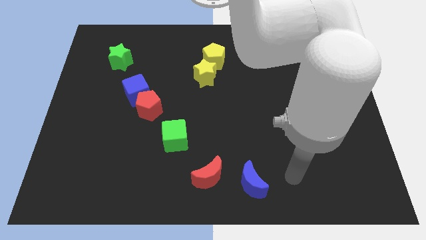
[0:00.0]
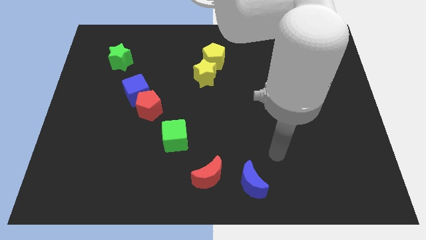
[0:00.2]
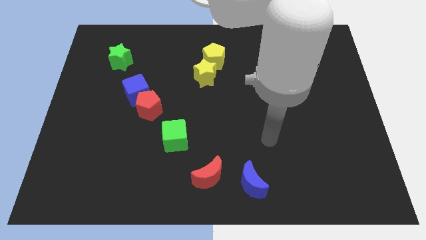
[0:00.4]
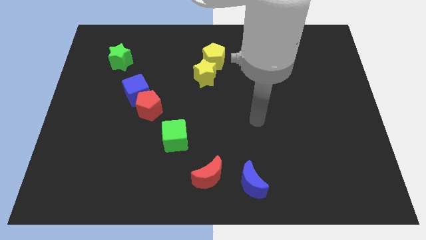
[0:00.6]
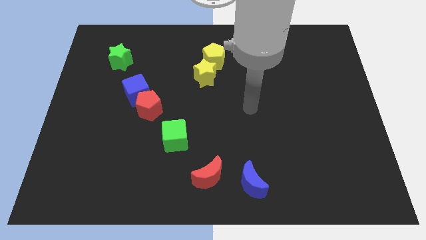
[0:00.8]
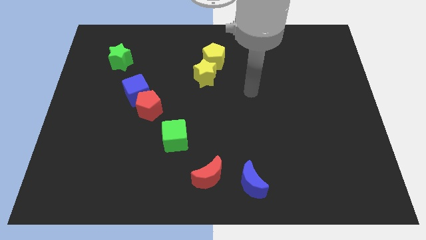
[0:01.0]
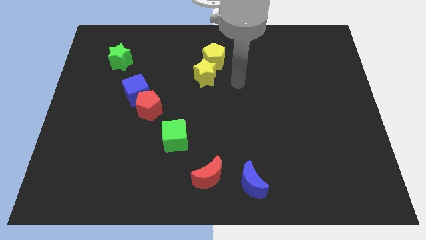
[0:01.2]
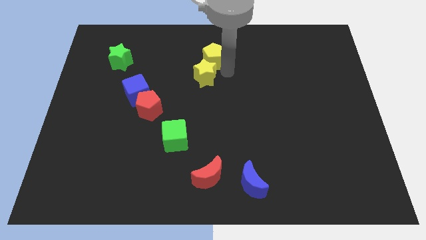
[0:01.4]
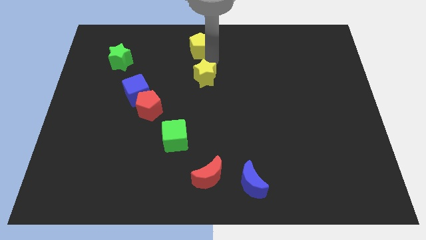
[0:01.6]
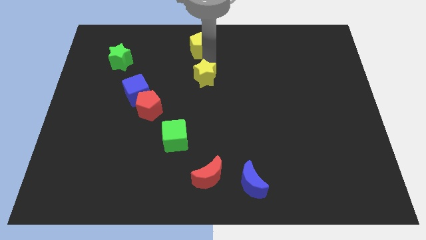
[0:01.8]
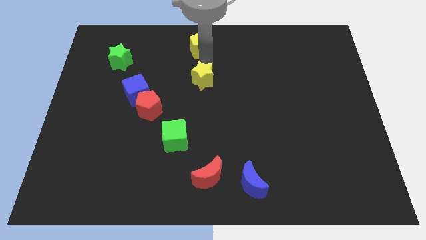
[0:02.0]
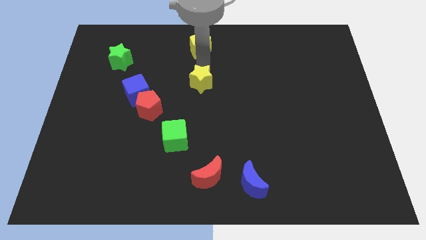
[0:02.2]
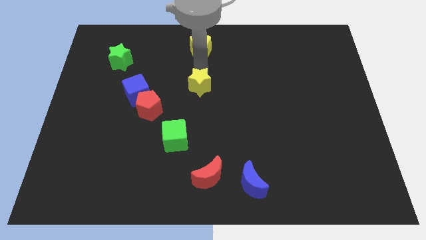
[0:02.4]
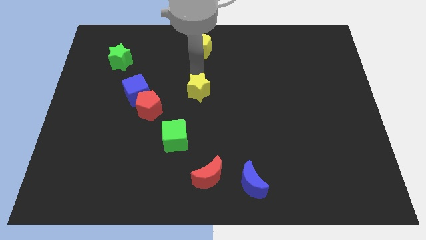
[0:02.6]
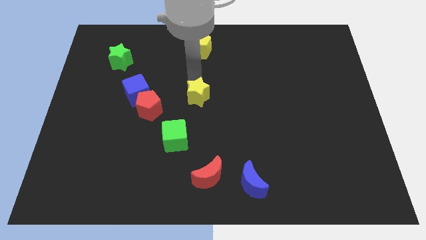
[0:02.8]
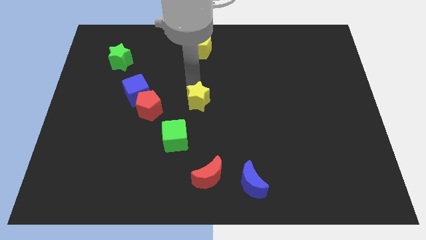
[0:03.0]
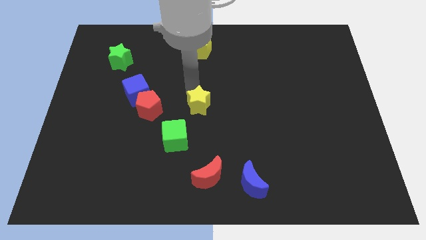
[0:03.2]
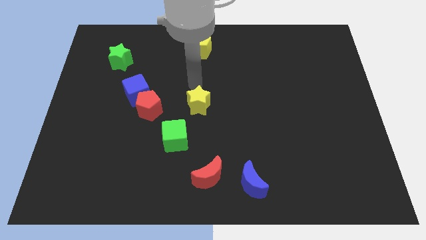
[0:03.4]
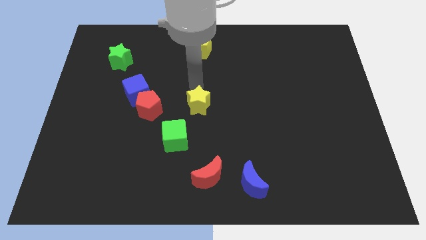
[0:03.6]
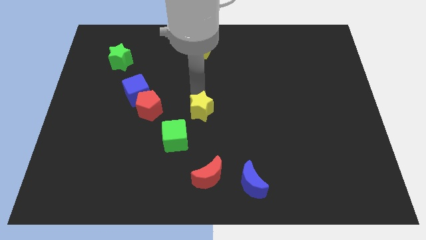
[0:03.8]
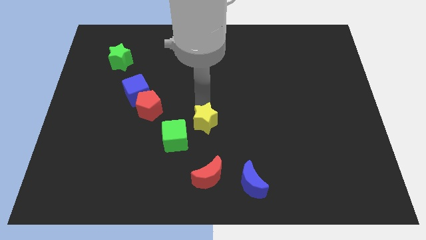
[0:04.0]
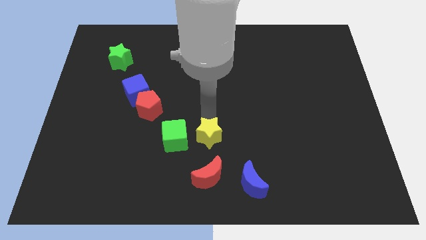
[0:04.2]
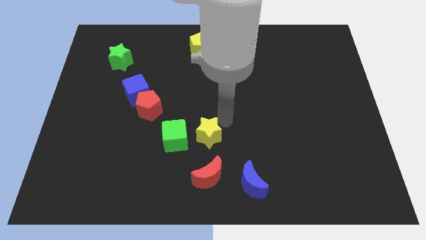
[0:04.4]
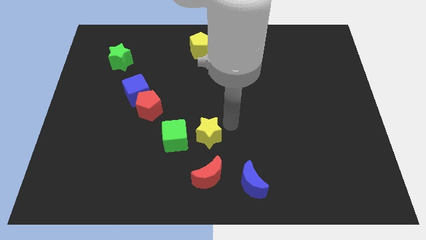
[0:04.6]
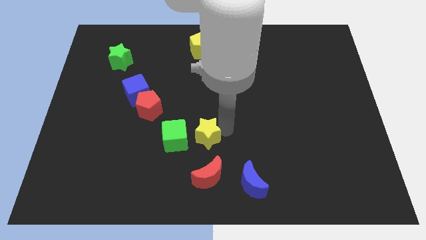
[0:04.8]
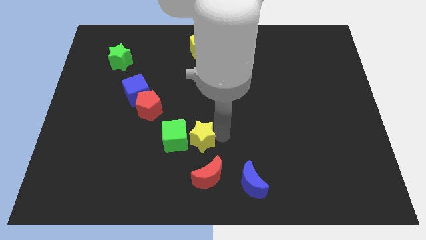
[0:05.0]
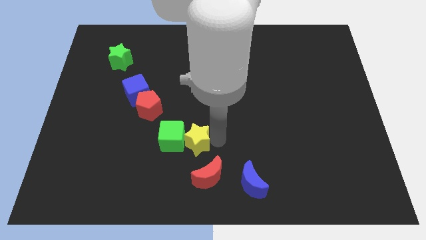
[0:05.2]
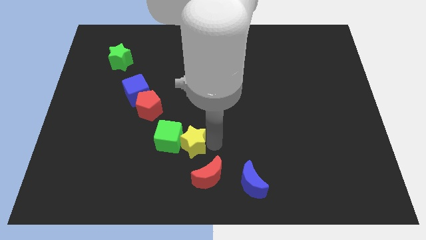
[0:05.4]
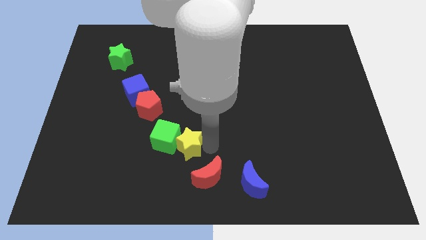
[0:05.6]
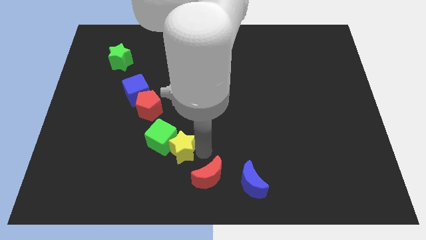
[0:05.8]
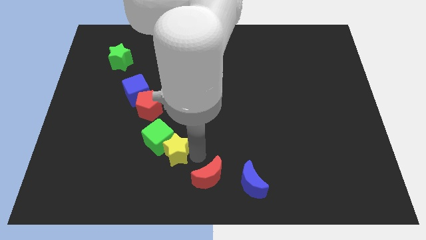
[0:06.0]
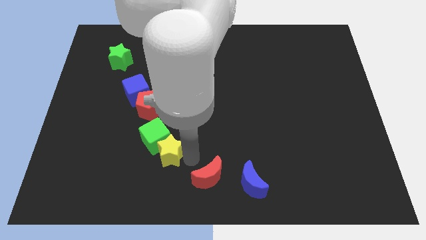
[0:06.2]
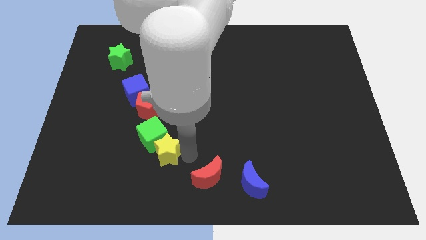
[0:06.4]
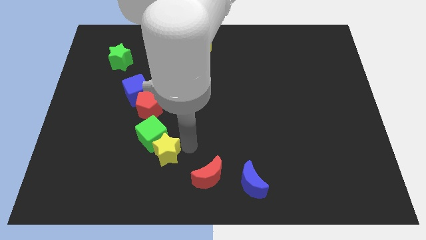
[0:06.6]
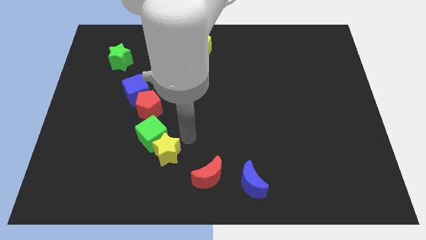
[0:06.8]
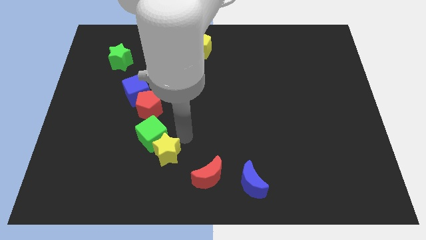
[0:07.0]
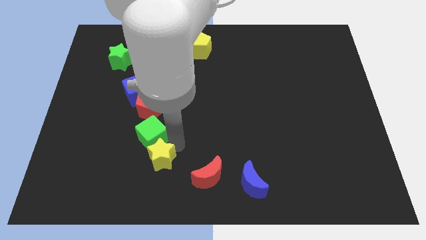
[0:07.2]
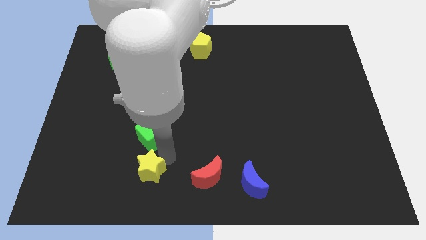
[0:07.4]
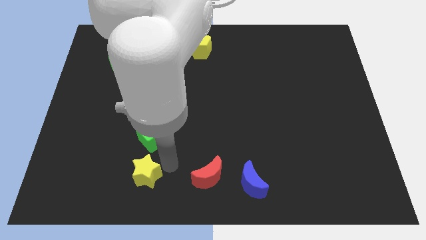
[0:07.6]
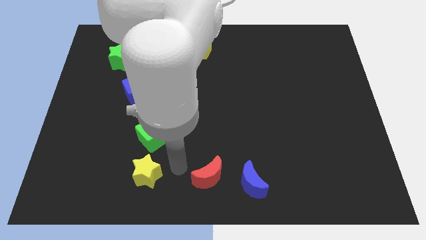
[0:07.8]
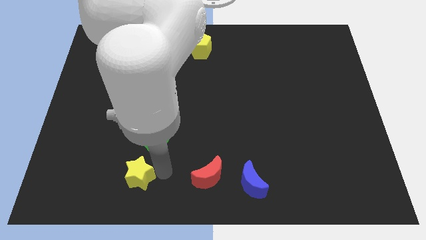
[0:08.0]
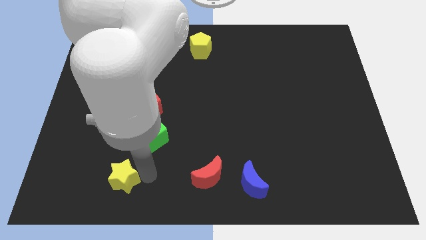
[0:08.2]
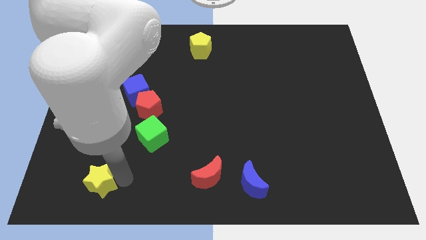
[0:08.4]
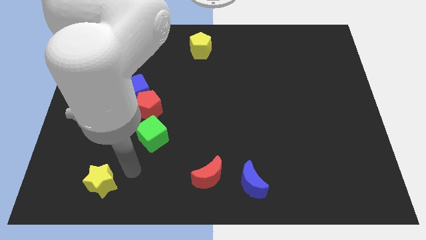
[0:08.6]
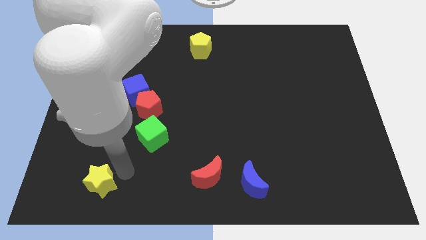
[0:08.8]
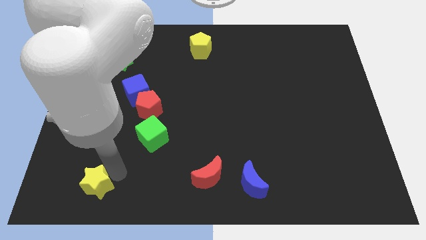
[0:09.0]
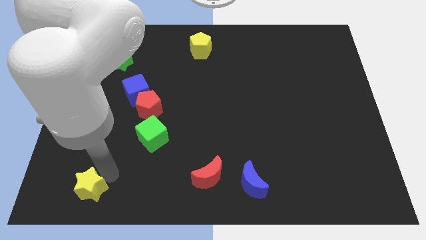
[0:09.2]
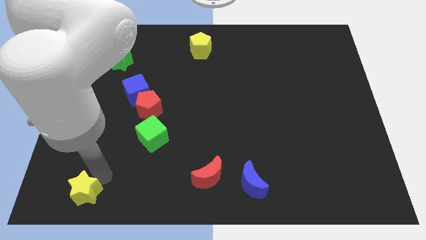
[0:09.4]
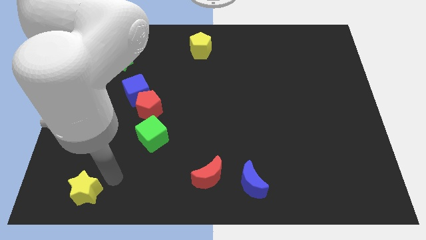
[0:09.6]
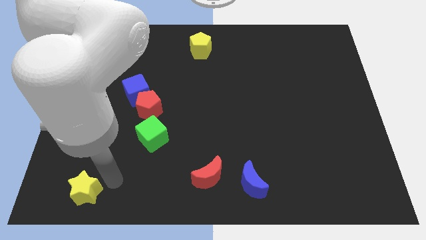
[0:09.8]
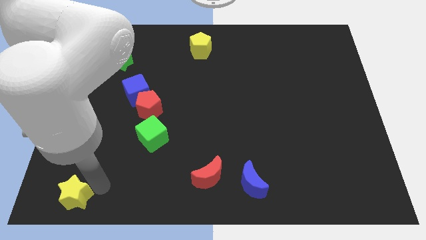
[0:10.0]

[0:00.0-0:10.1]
push the yellow star to the bottom left corner

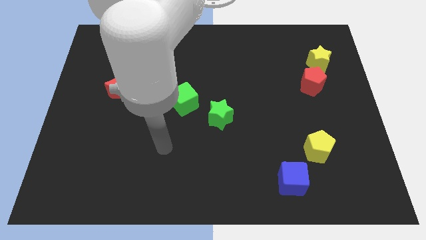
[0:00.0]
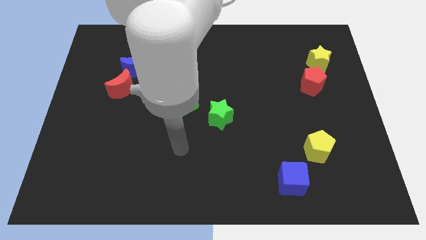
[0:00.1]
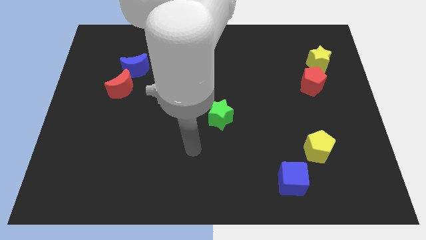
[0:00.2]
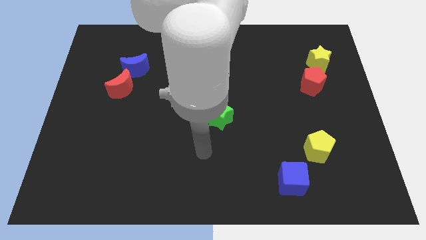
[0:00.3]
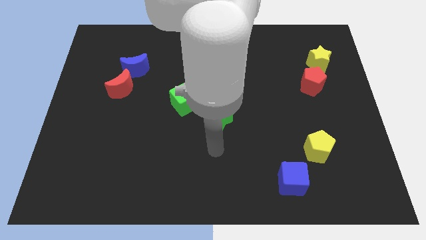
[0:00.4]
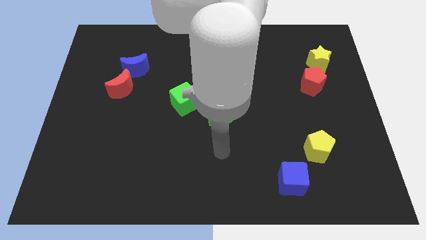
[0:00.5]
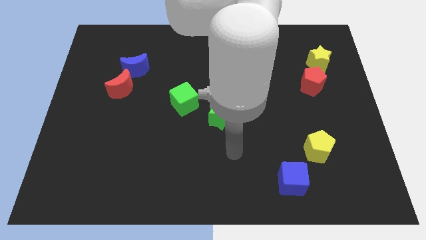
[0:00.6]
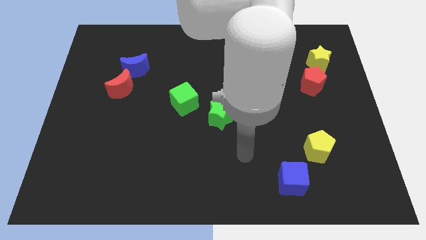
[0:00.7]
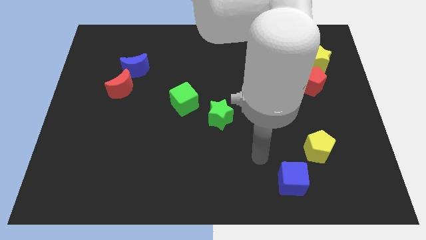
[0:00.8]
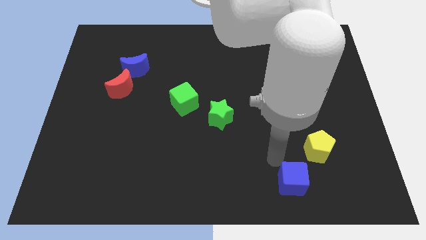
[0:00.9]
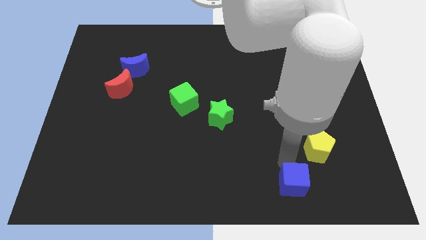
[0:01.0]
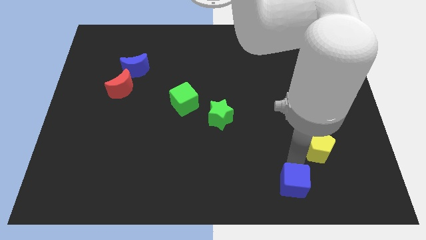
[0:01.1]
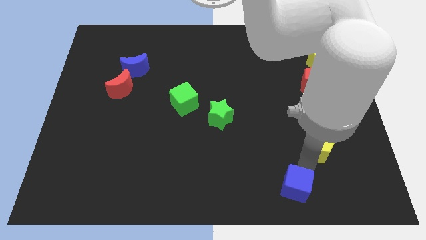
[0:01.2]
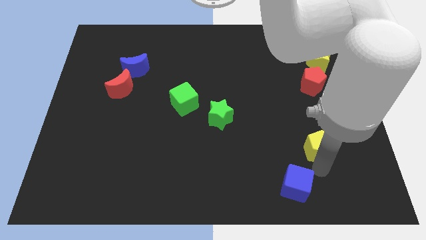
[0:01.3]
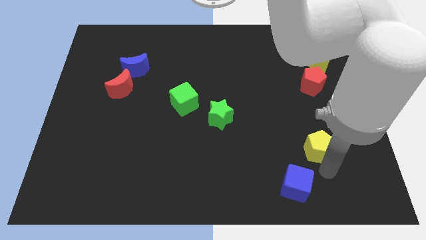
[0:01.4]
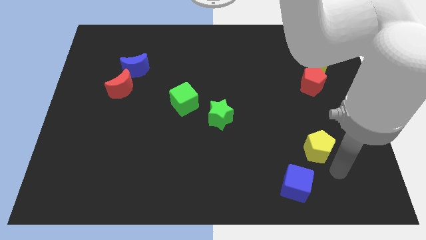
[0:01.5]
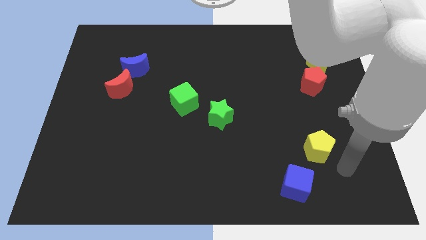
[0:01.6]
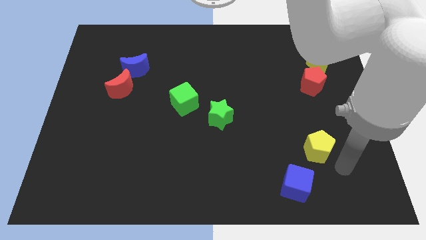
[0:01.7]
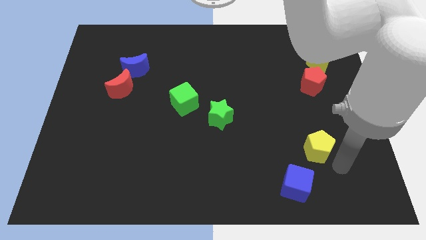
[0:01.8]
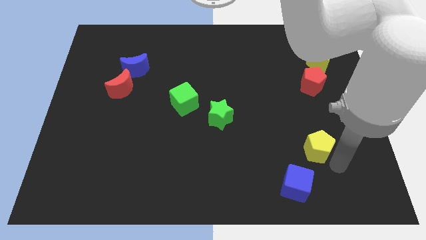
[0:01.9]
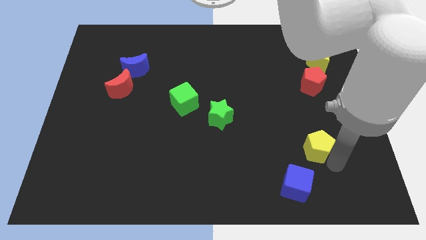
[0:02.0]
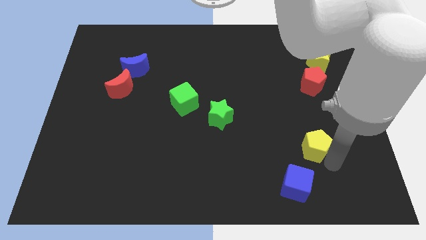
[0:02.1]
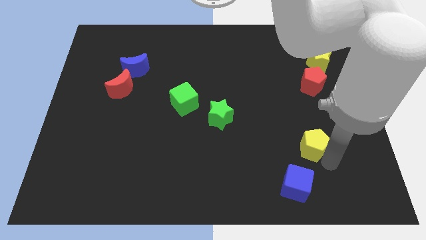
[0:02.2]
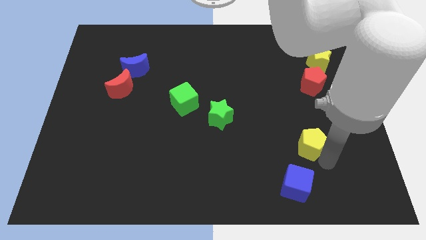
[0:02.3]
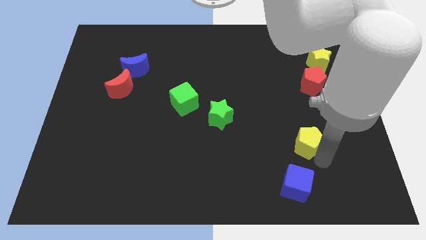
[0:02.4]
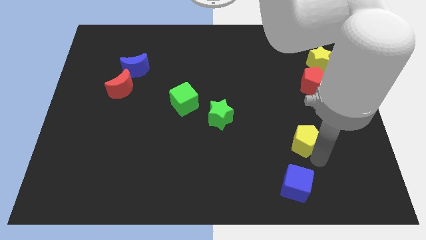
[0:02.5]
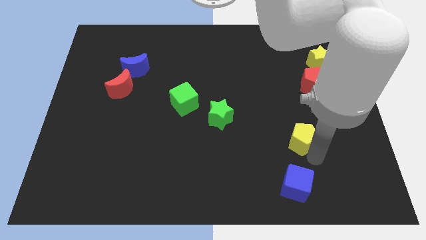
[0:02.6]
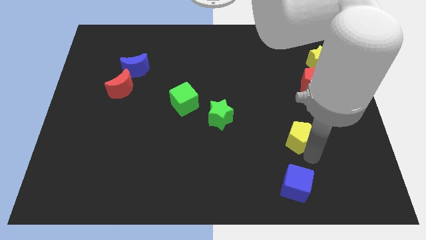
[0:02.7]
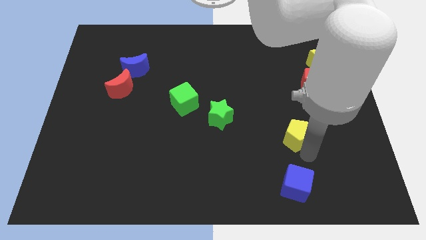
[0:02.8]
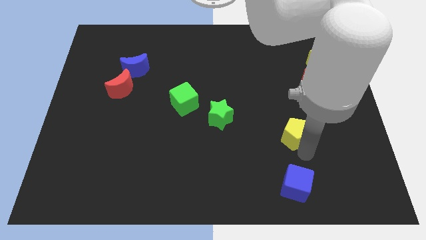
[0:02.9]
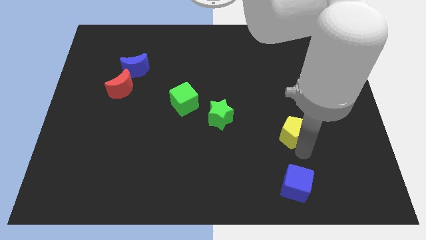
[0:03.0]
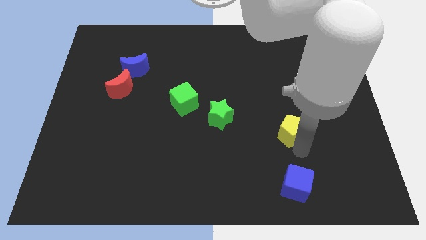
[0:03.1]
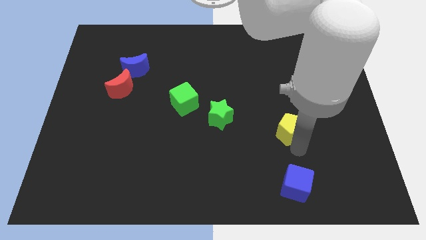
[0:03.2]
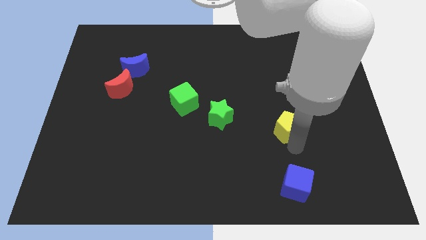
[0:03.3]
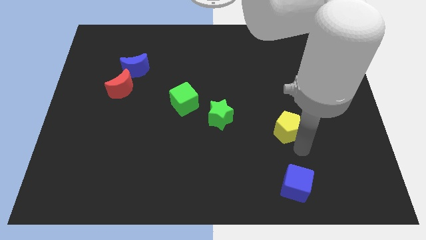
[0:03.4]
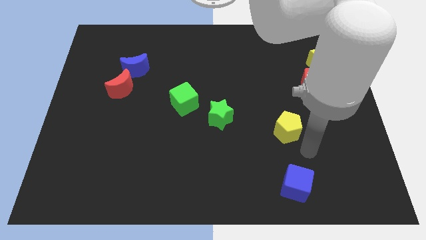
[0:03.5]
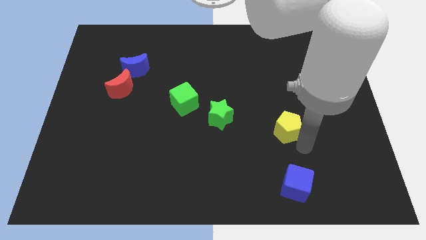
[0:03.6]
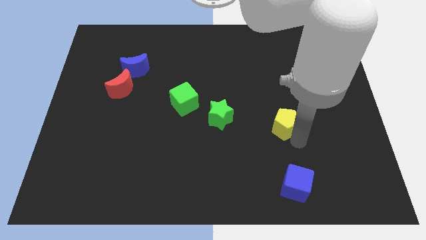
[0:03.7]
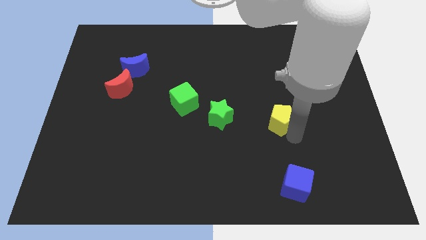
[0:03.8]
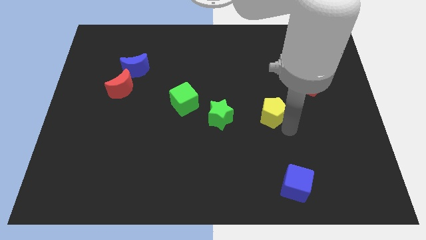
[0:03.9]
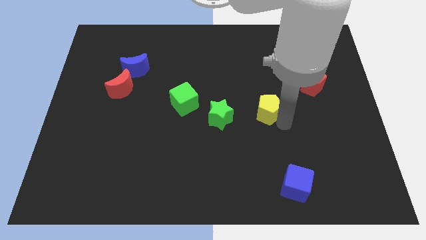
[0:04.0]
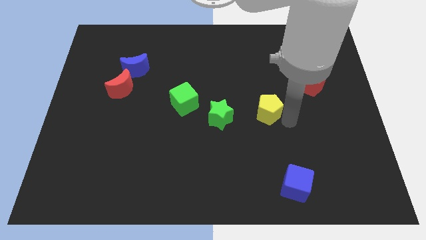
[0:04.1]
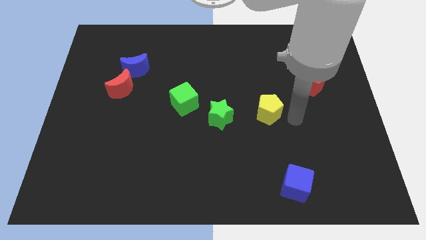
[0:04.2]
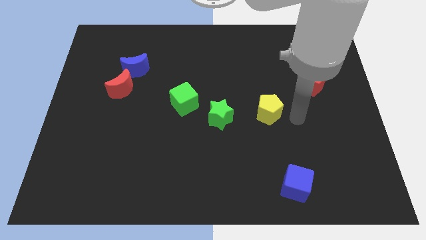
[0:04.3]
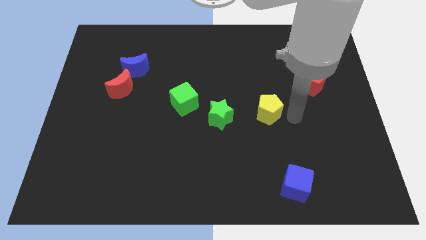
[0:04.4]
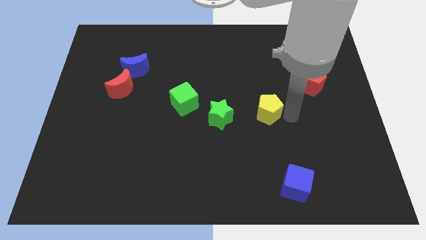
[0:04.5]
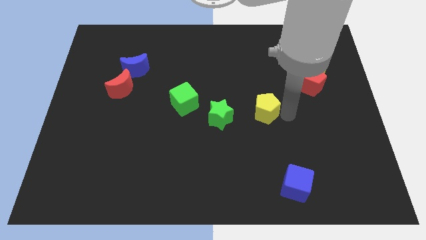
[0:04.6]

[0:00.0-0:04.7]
put the yellow pentagon to the center of the board
